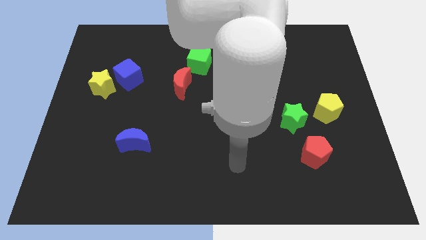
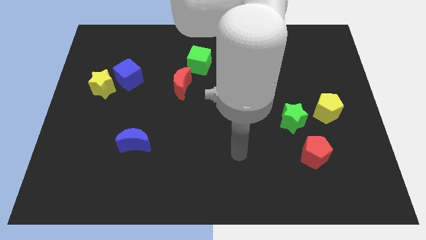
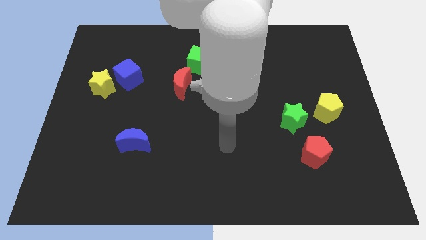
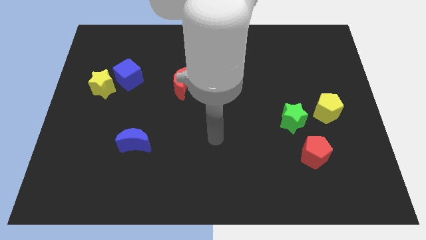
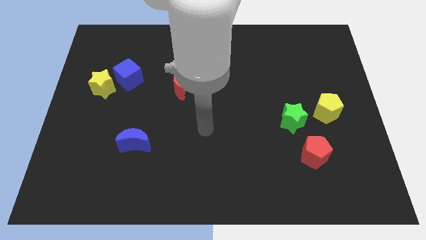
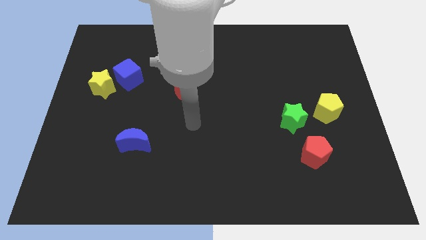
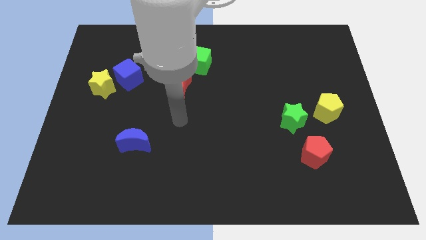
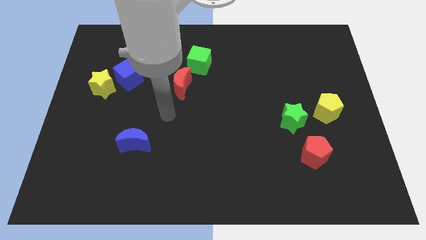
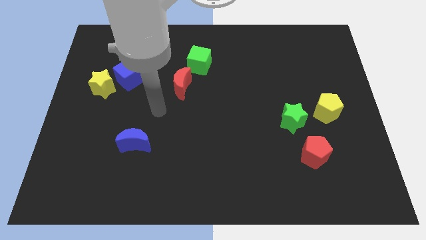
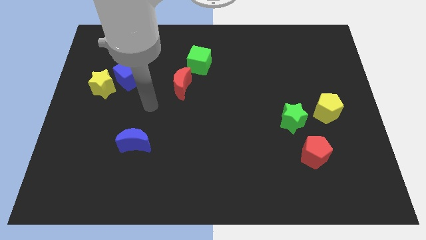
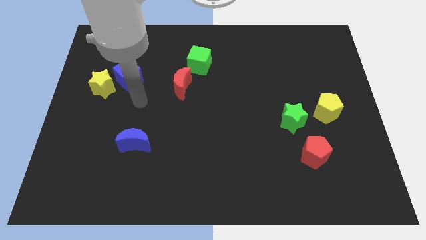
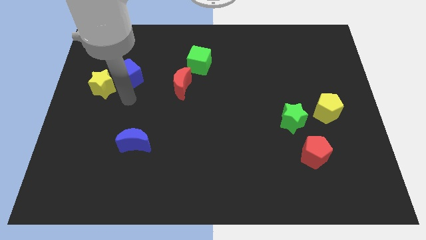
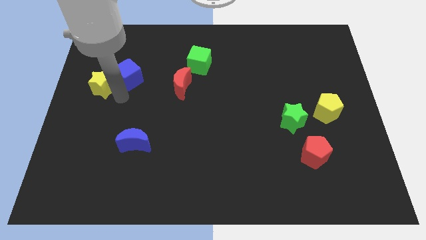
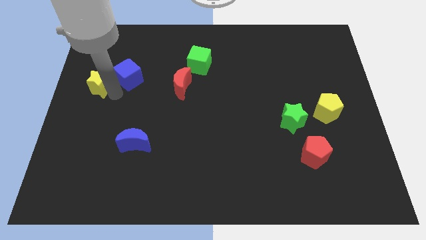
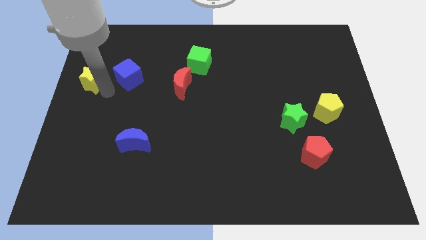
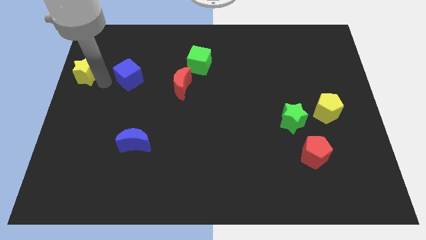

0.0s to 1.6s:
pull the blue cube apart from the yellow star

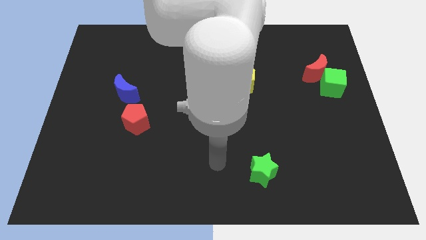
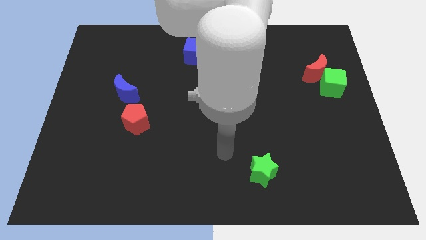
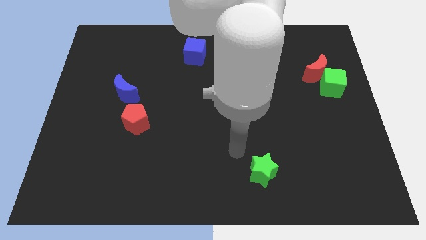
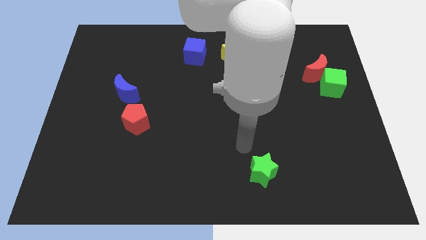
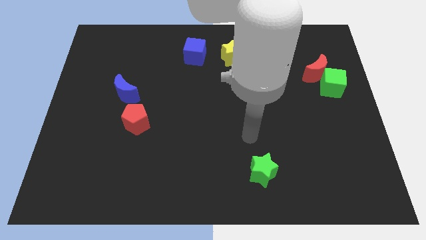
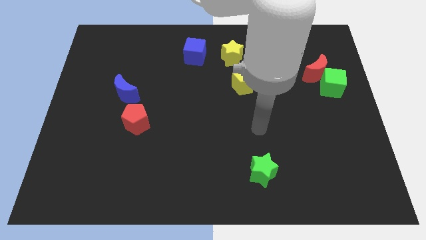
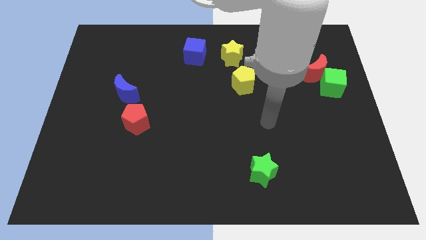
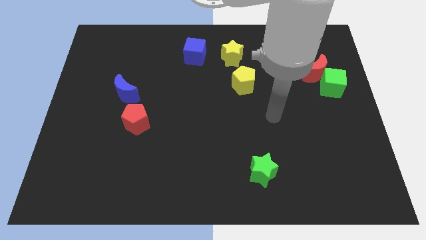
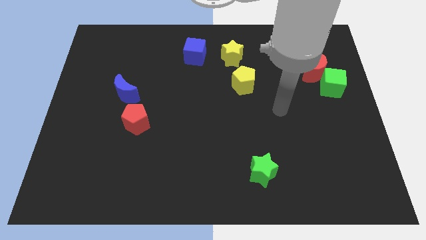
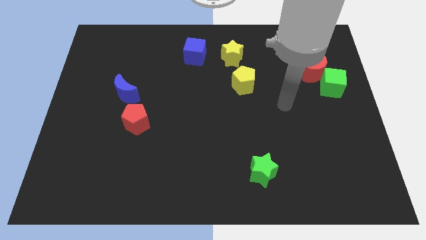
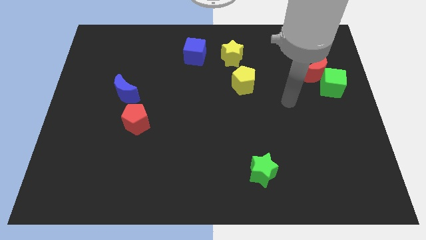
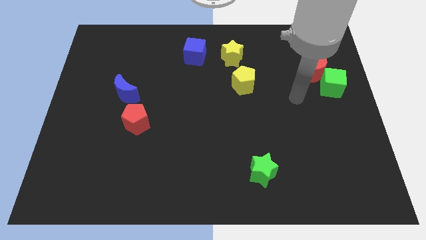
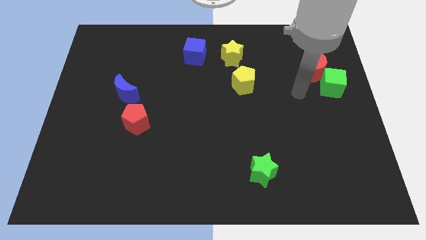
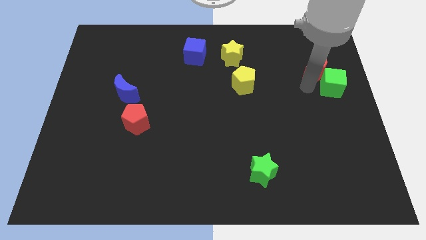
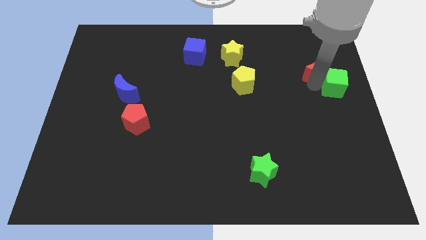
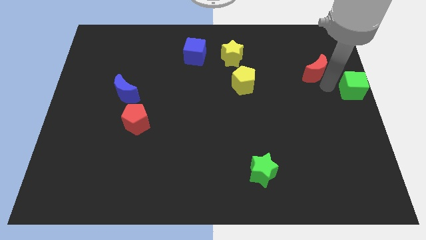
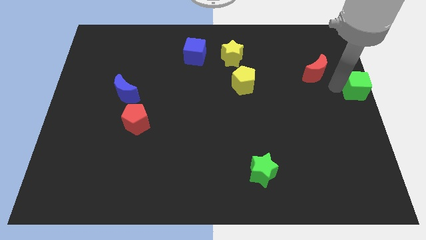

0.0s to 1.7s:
separate the red moon from the green cube

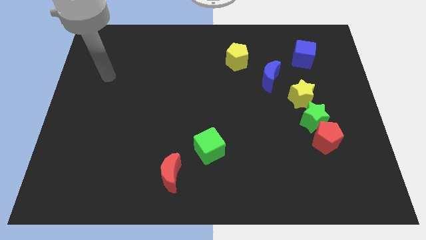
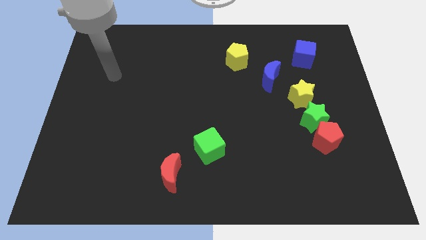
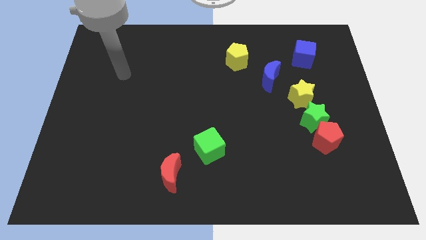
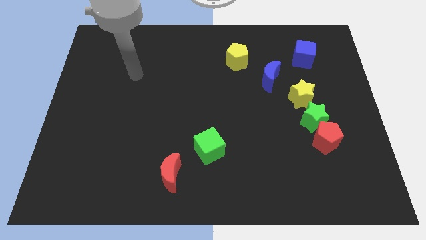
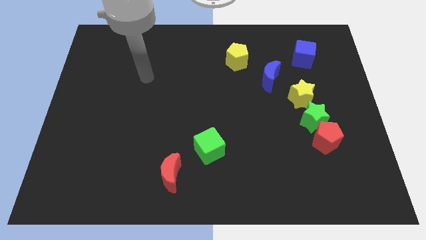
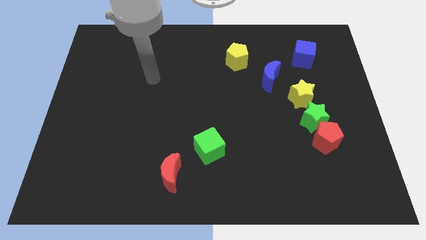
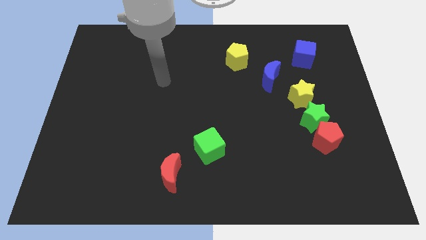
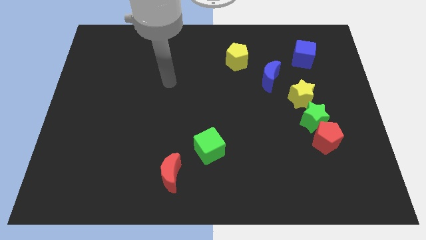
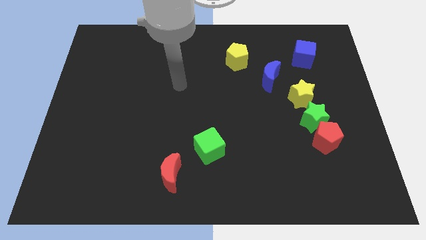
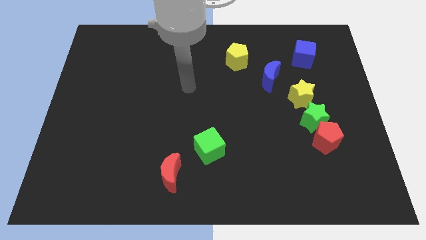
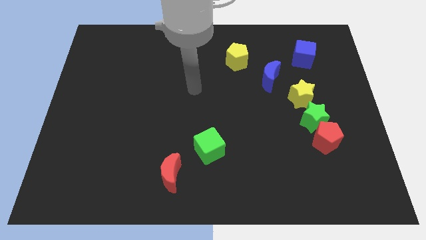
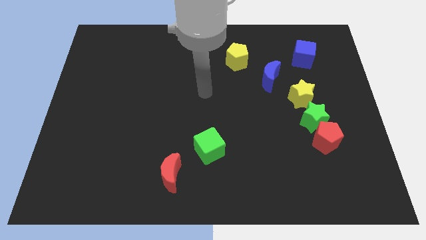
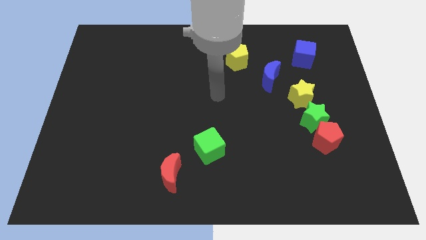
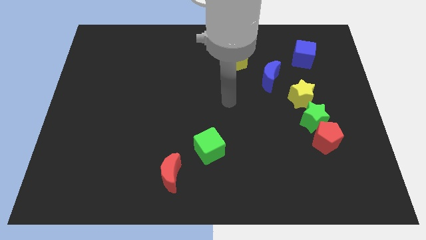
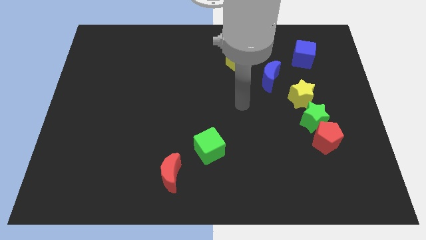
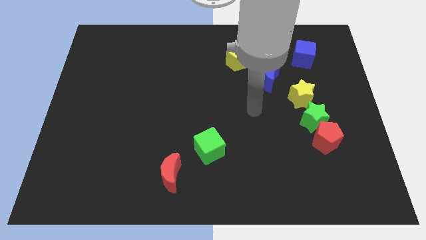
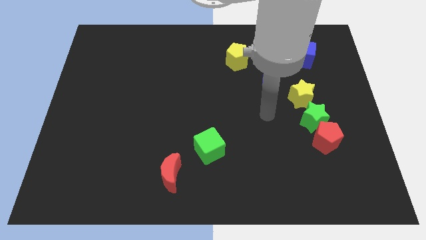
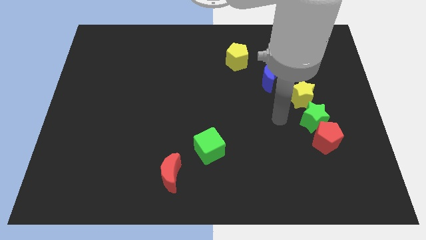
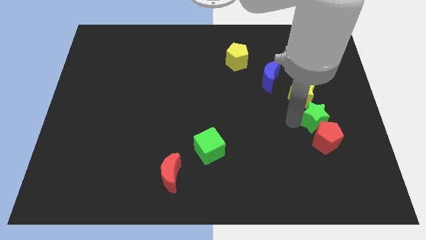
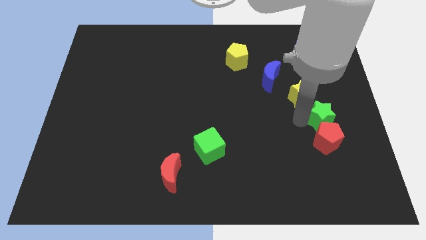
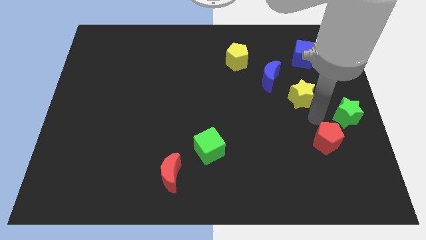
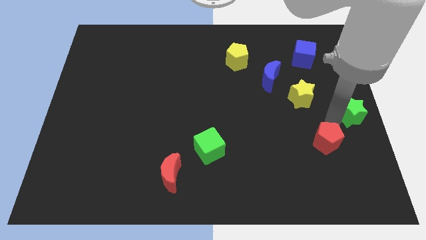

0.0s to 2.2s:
move the red pentagon away from the green star

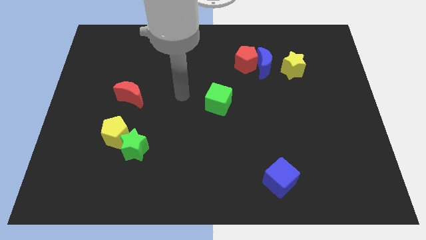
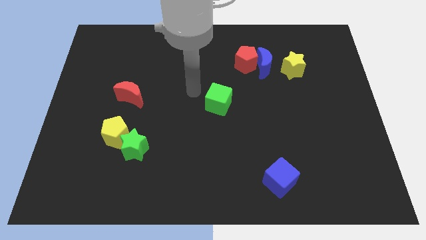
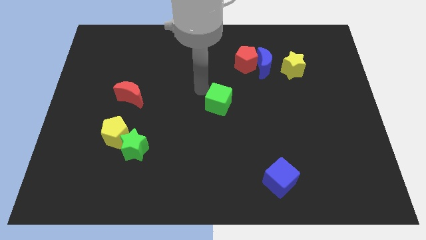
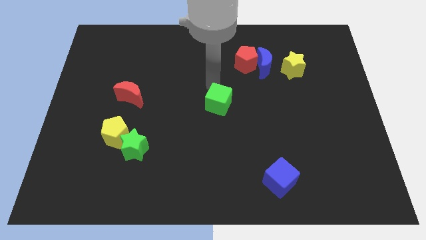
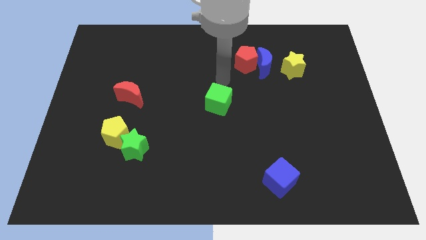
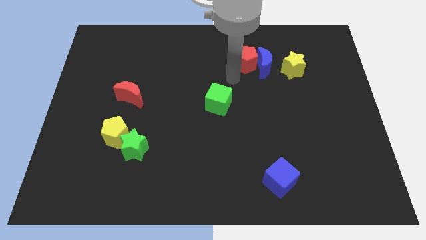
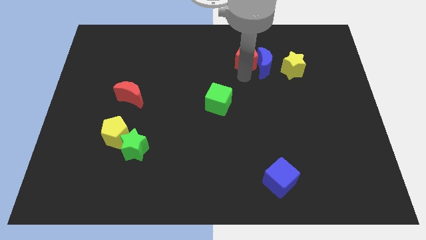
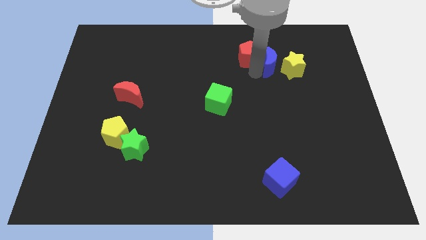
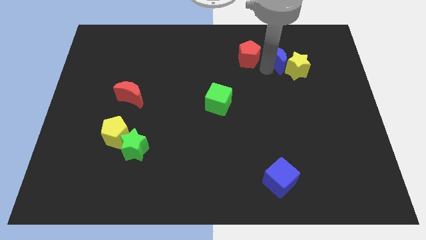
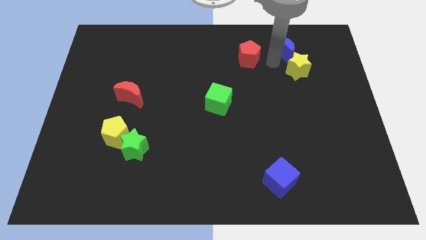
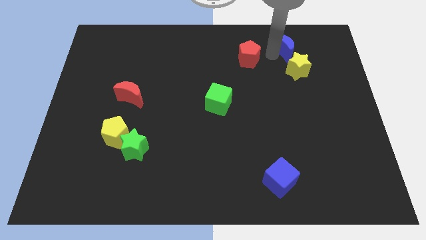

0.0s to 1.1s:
pull the red pentagon apart from the blue moon

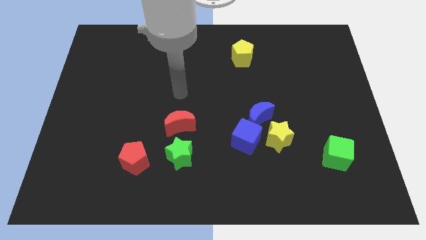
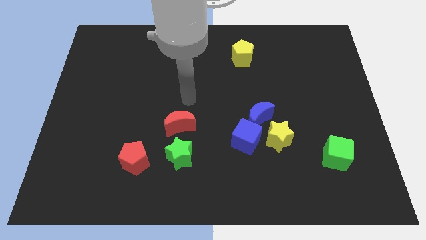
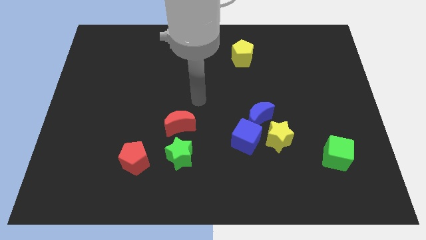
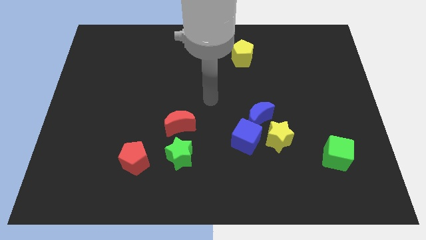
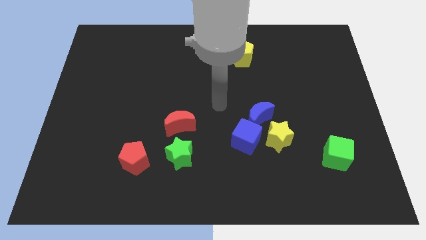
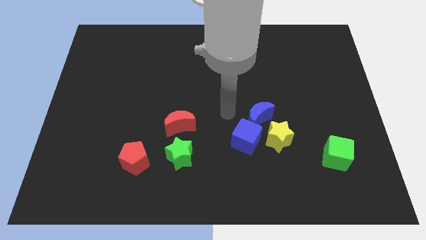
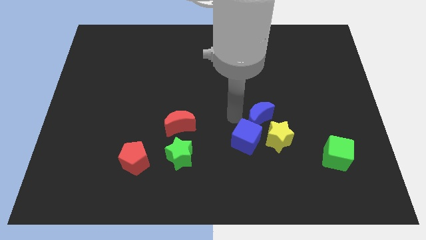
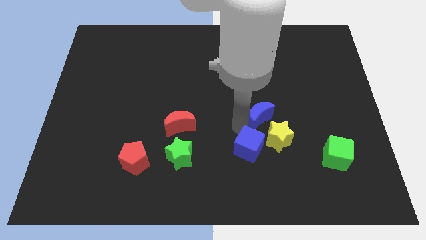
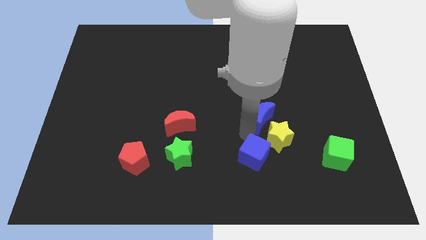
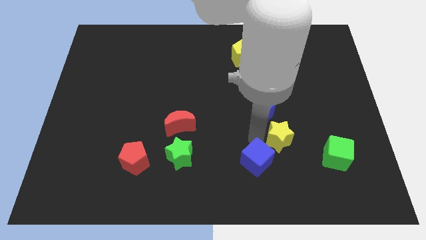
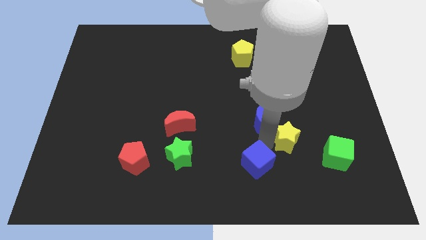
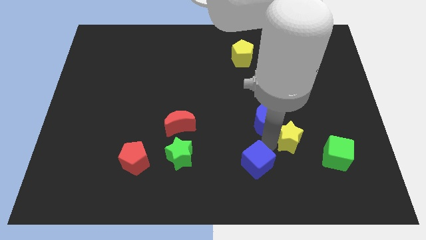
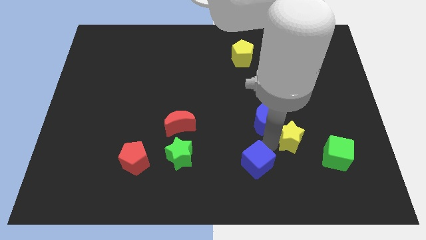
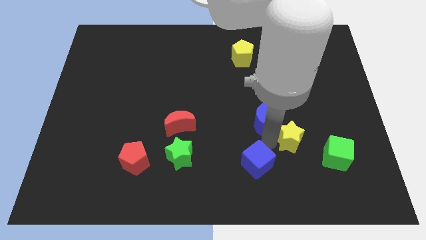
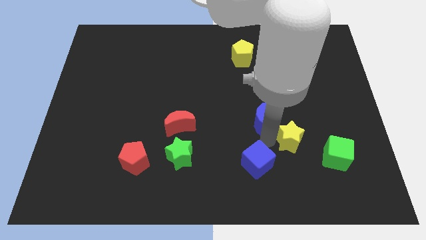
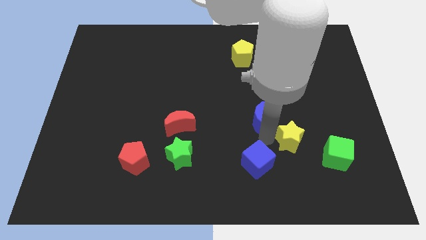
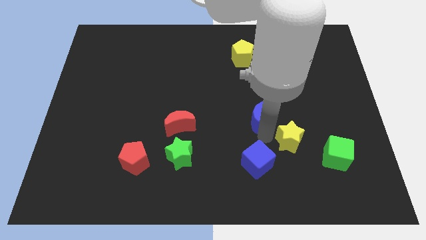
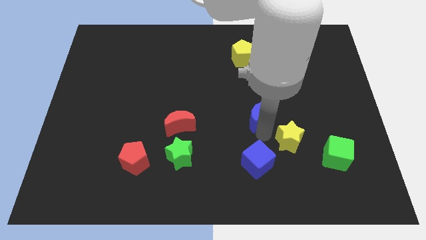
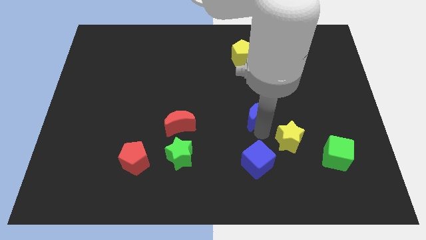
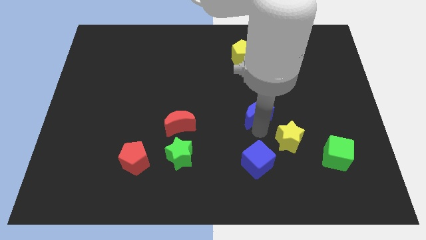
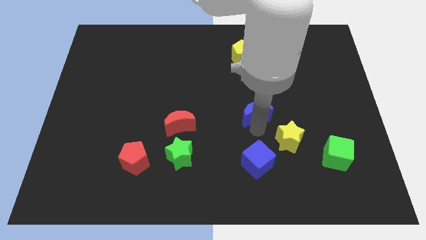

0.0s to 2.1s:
move the blue moon away from the blue cube and yellow star

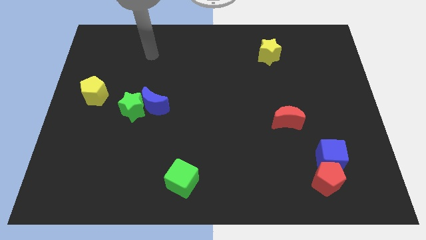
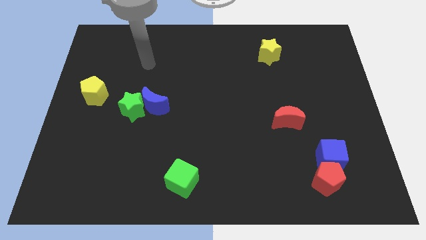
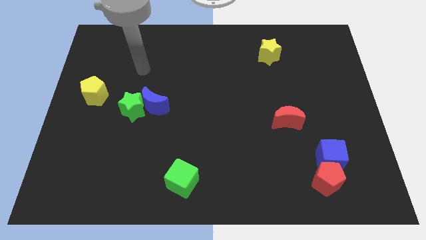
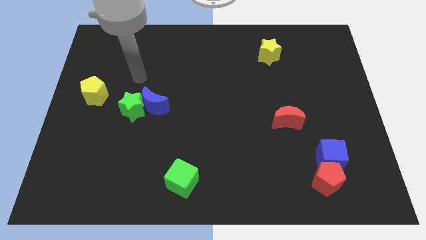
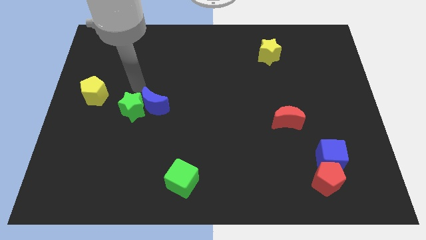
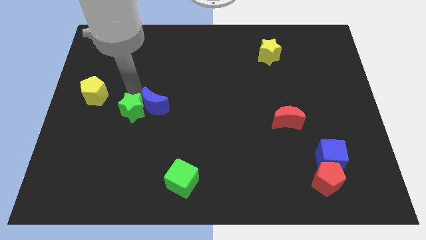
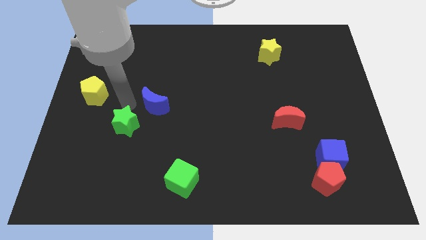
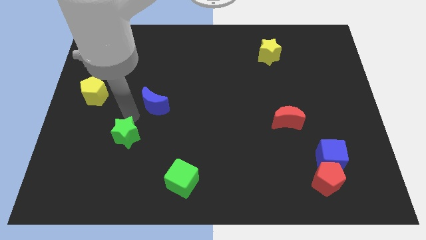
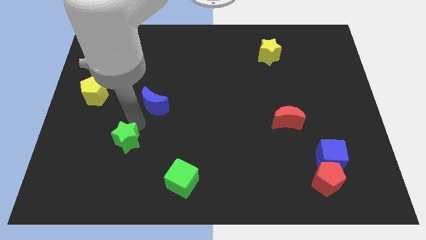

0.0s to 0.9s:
separate the blue moon from the green star
